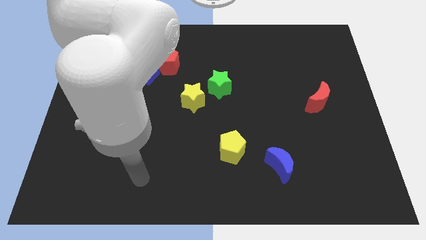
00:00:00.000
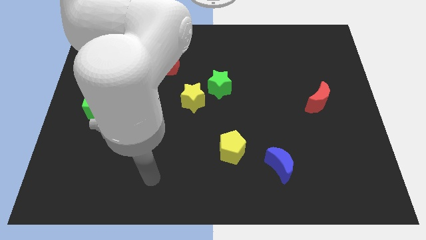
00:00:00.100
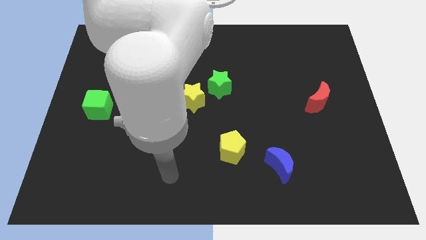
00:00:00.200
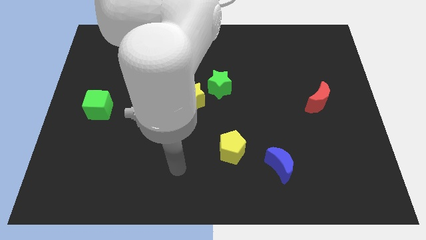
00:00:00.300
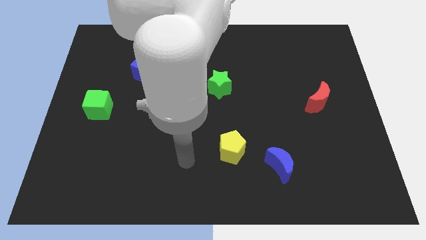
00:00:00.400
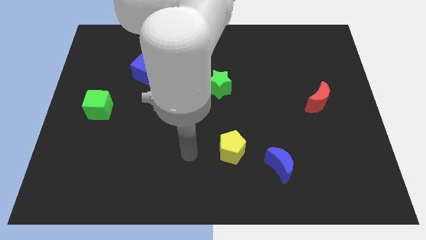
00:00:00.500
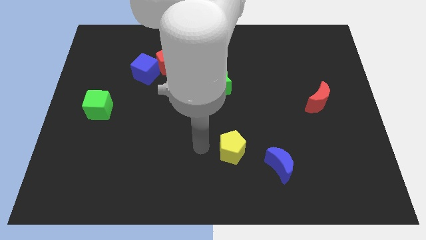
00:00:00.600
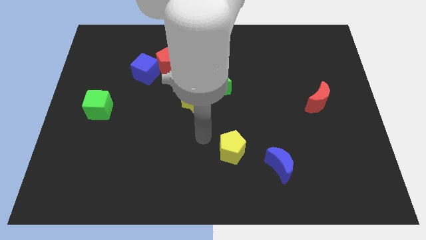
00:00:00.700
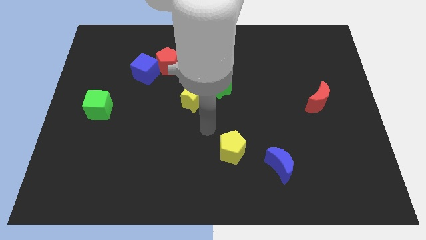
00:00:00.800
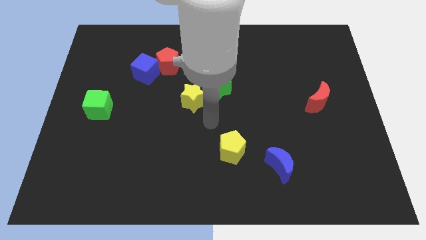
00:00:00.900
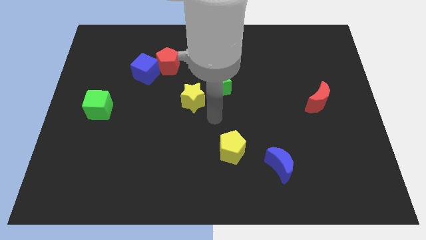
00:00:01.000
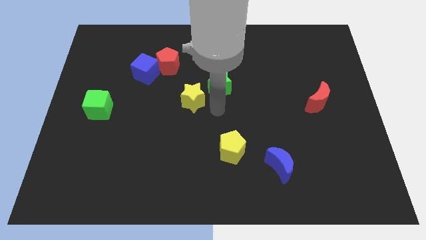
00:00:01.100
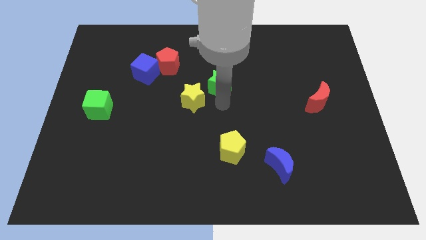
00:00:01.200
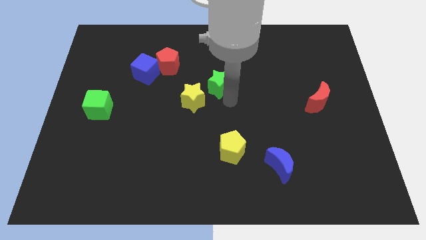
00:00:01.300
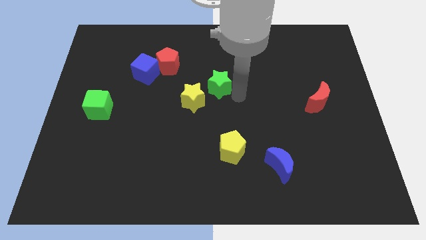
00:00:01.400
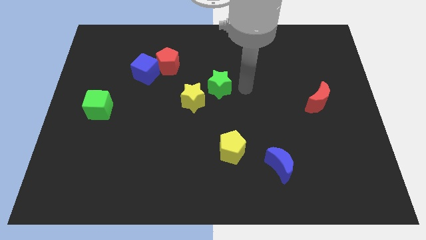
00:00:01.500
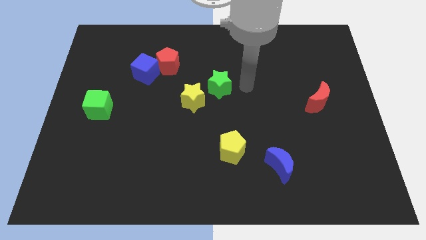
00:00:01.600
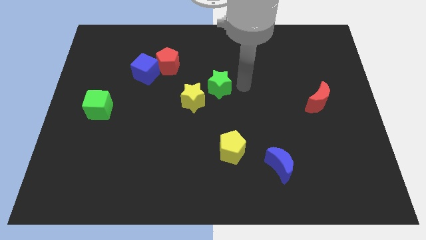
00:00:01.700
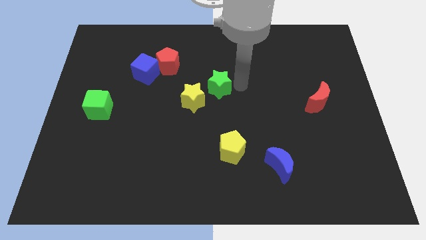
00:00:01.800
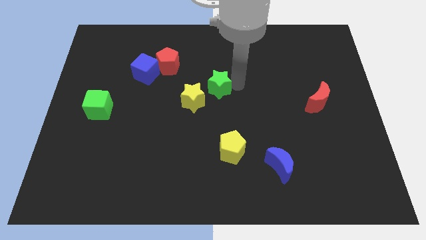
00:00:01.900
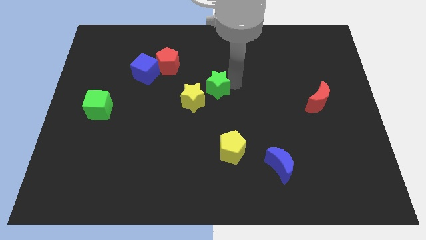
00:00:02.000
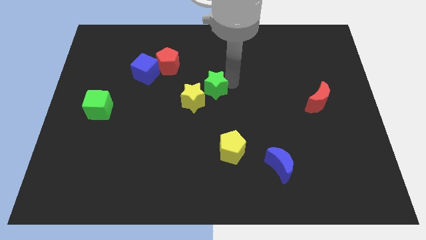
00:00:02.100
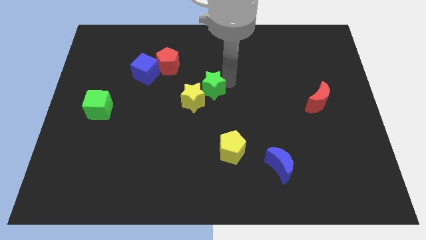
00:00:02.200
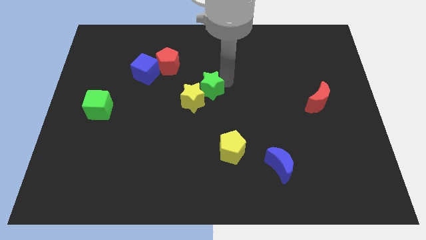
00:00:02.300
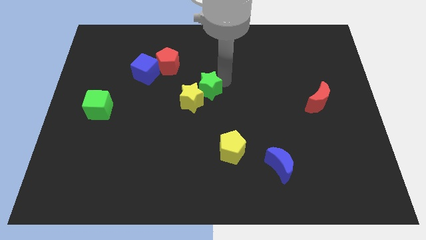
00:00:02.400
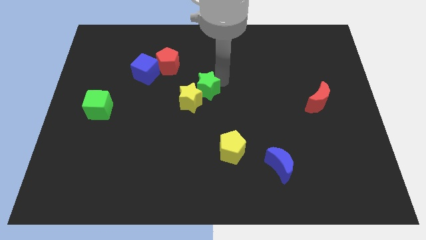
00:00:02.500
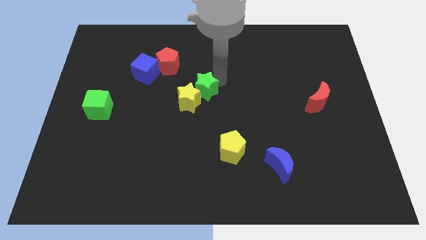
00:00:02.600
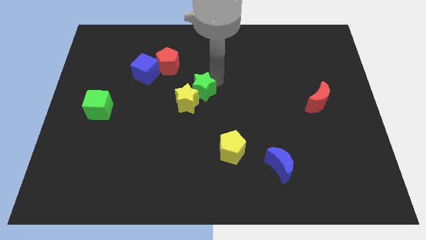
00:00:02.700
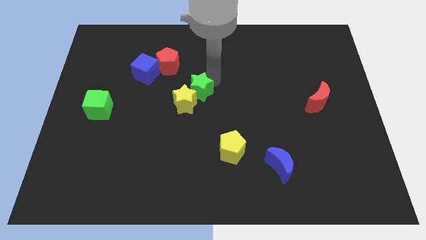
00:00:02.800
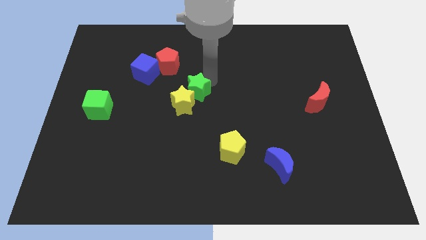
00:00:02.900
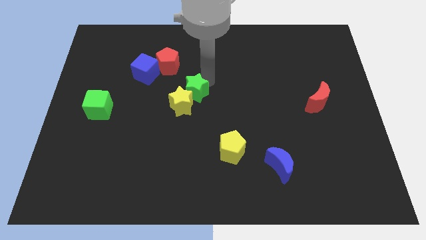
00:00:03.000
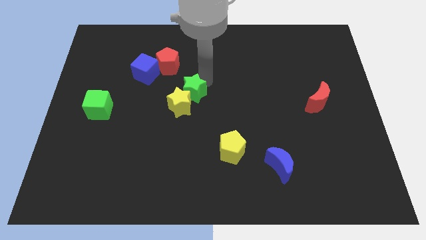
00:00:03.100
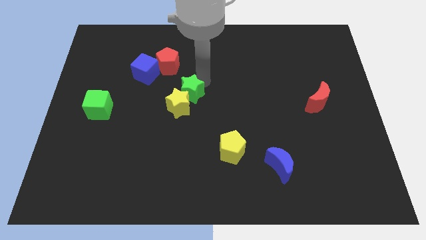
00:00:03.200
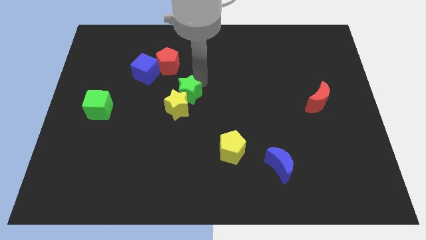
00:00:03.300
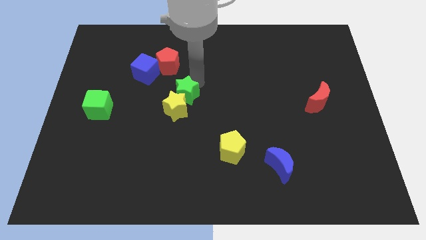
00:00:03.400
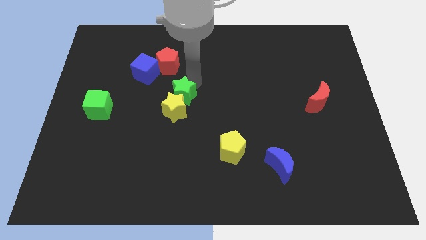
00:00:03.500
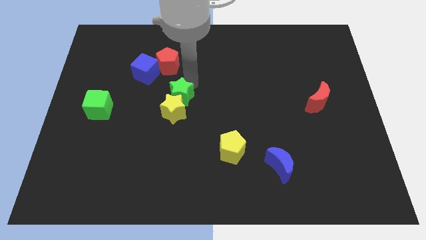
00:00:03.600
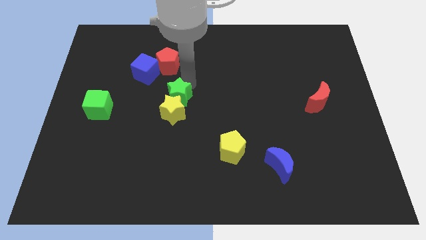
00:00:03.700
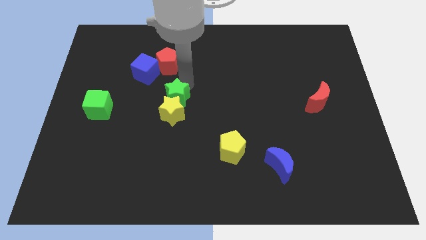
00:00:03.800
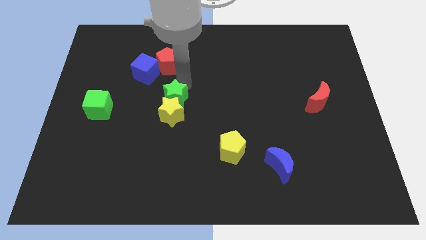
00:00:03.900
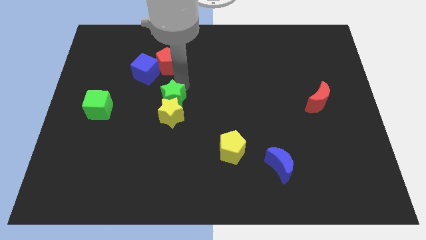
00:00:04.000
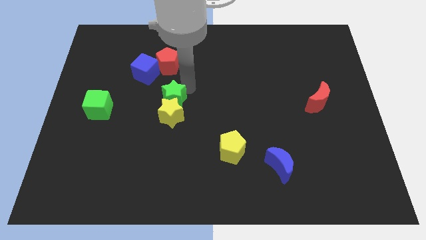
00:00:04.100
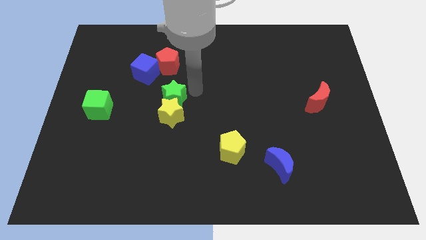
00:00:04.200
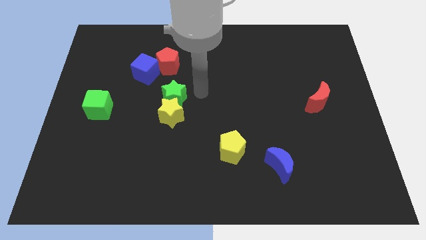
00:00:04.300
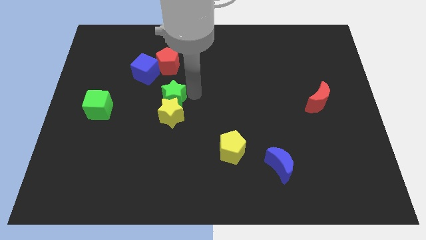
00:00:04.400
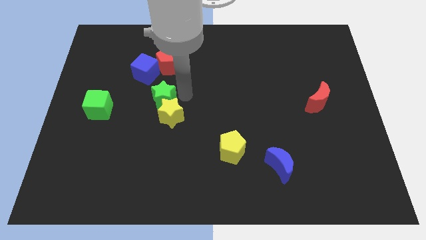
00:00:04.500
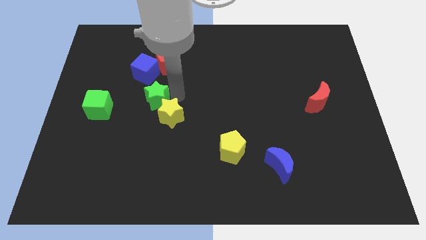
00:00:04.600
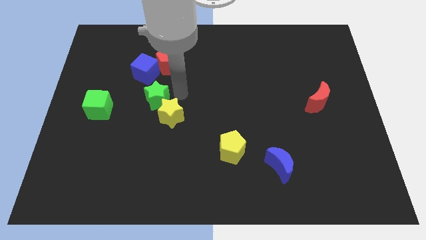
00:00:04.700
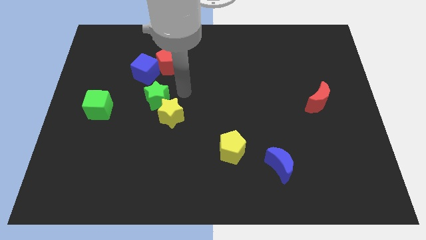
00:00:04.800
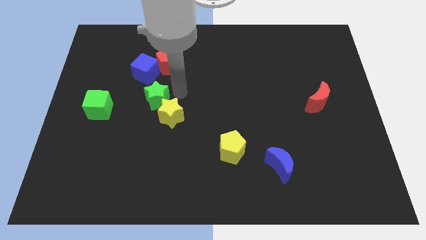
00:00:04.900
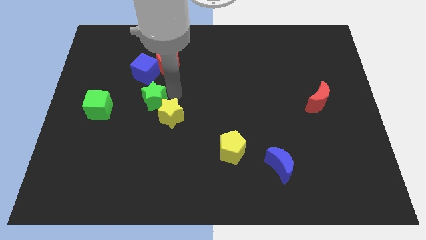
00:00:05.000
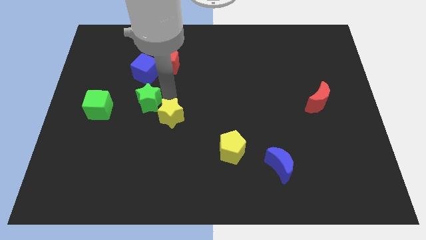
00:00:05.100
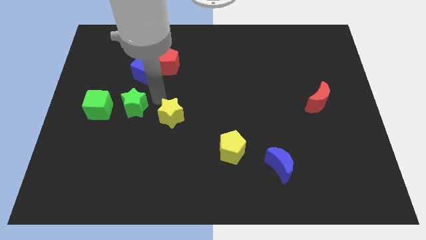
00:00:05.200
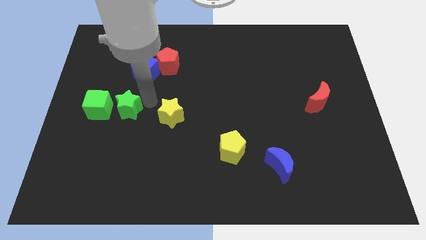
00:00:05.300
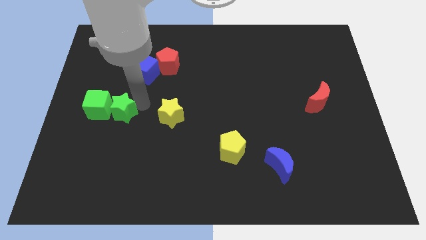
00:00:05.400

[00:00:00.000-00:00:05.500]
move the green star close to the green cube

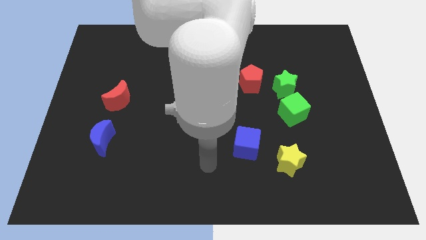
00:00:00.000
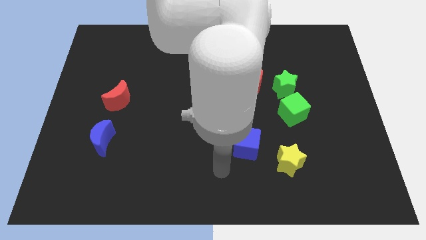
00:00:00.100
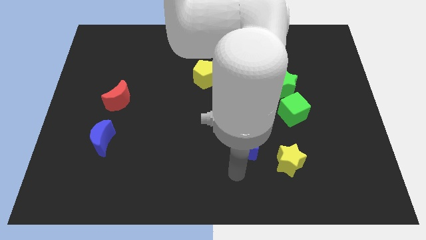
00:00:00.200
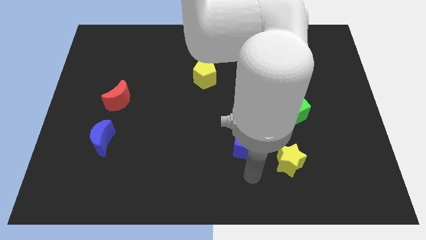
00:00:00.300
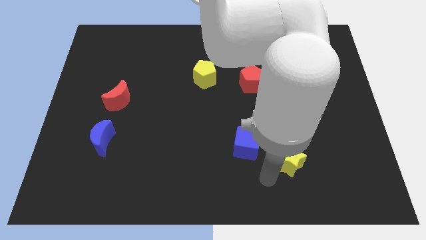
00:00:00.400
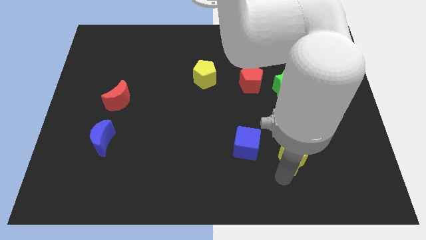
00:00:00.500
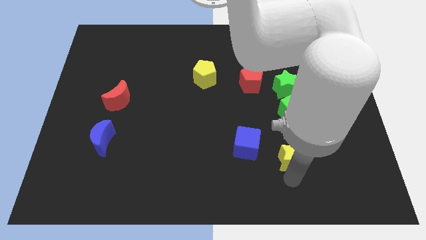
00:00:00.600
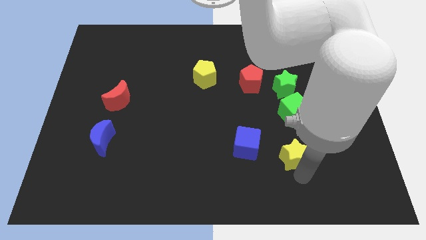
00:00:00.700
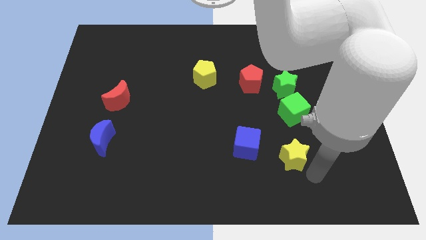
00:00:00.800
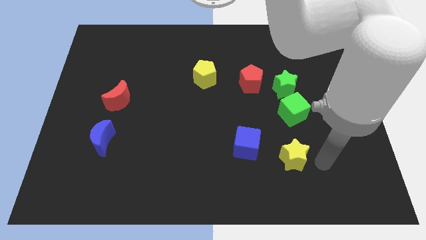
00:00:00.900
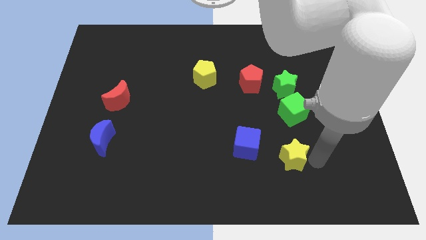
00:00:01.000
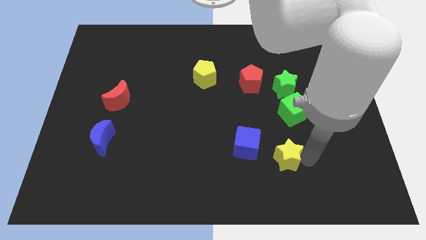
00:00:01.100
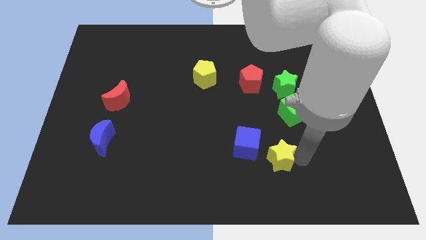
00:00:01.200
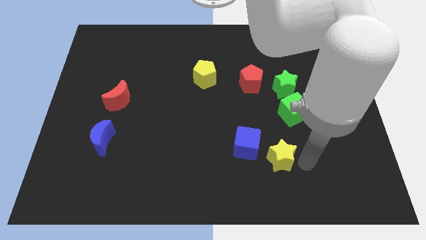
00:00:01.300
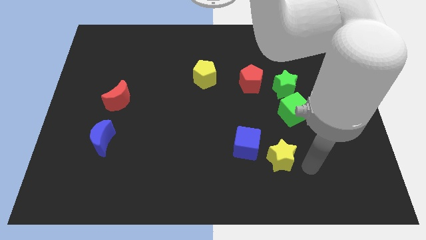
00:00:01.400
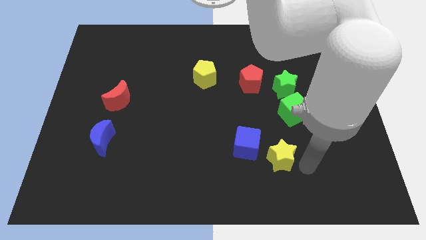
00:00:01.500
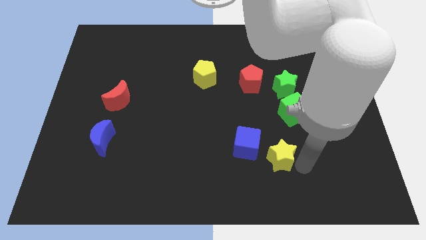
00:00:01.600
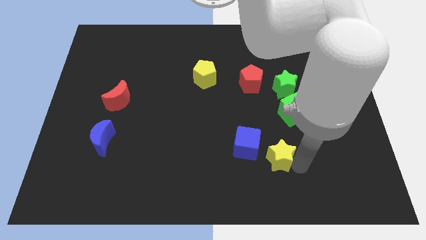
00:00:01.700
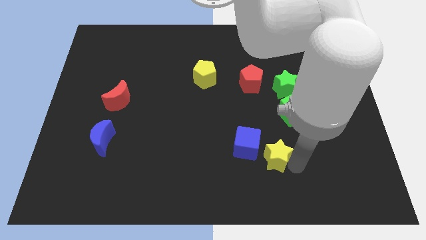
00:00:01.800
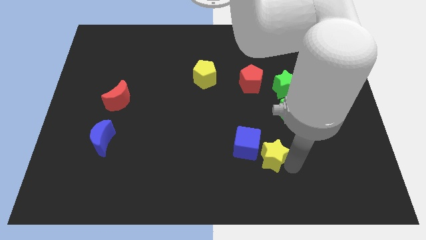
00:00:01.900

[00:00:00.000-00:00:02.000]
push the yellow star close to the blue cube

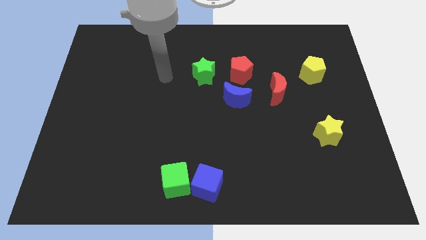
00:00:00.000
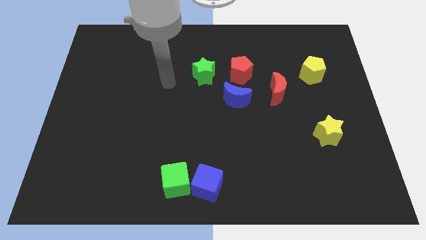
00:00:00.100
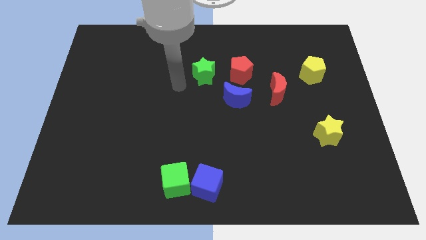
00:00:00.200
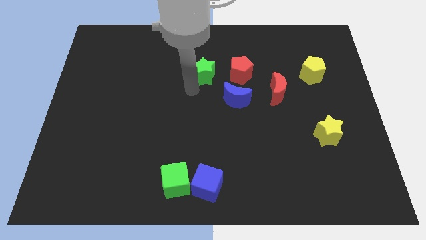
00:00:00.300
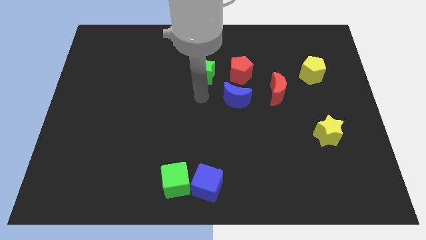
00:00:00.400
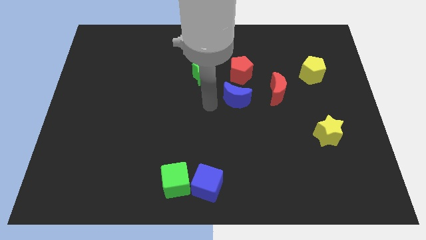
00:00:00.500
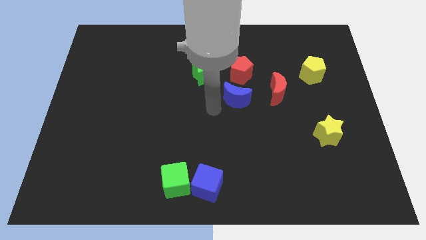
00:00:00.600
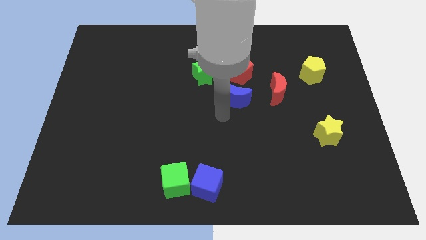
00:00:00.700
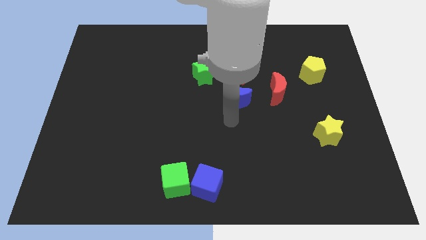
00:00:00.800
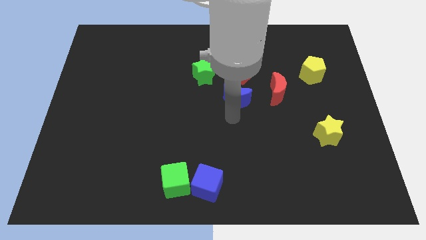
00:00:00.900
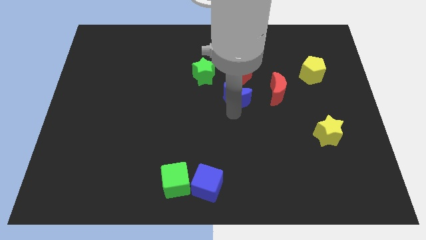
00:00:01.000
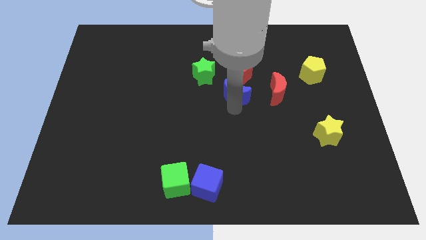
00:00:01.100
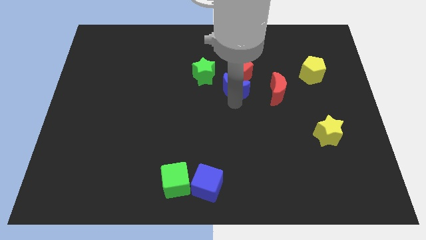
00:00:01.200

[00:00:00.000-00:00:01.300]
slide the blue moon next to the red pentagon
